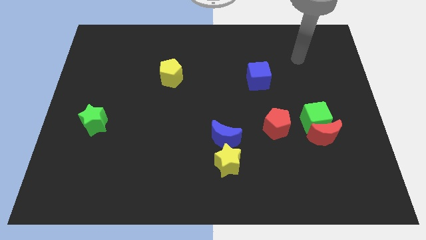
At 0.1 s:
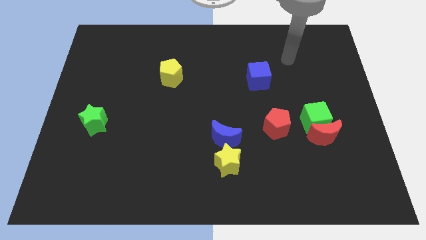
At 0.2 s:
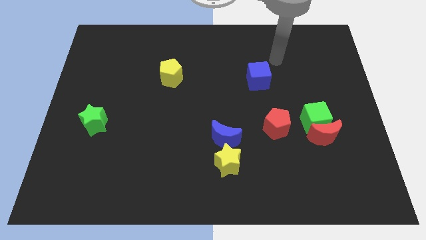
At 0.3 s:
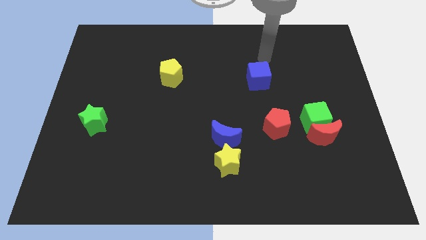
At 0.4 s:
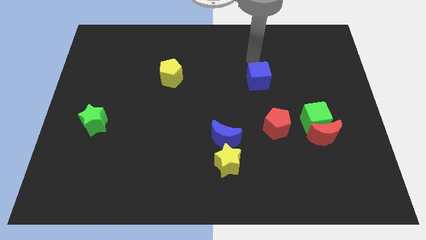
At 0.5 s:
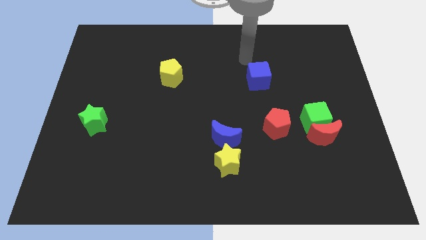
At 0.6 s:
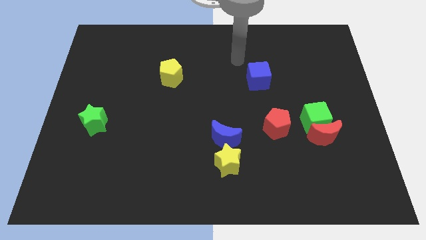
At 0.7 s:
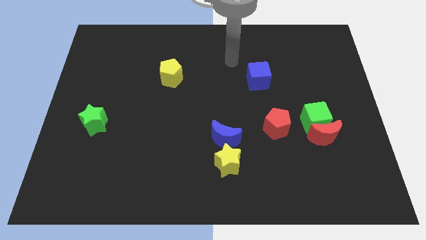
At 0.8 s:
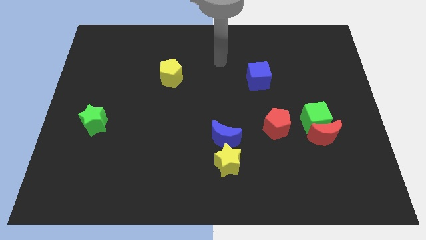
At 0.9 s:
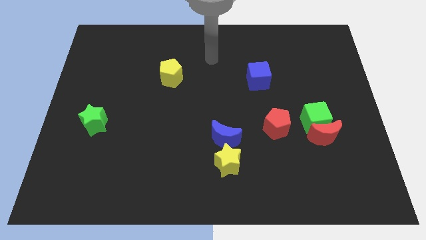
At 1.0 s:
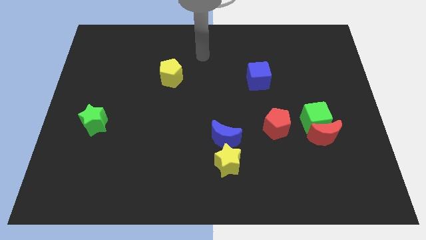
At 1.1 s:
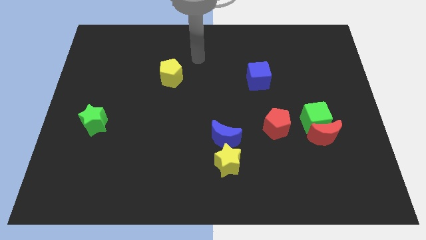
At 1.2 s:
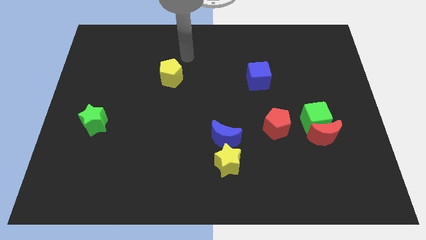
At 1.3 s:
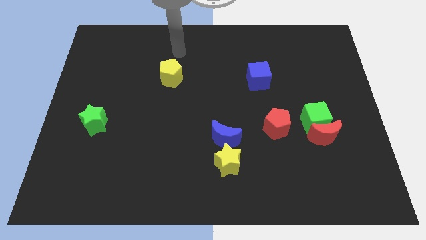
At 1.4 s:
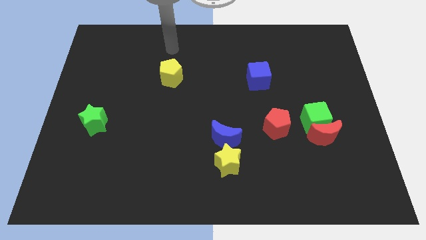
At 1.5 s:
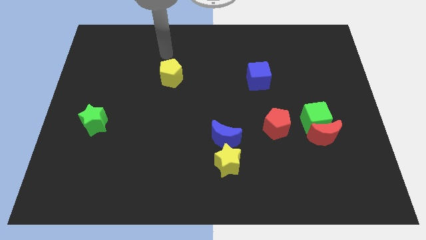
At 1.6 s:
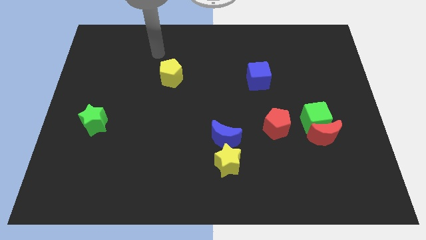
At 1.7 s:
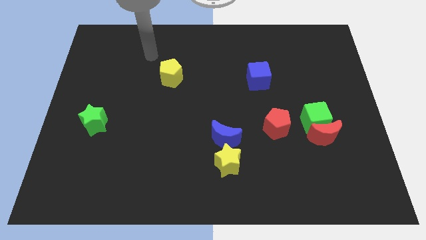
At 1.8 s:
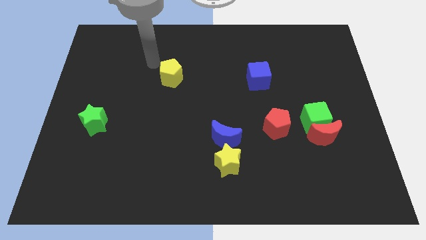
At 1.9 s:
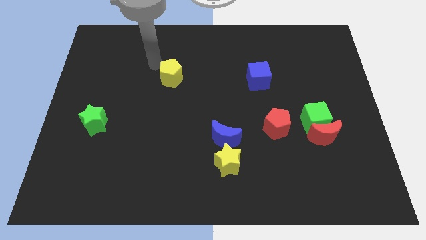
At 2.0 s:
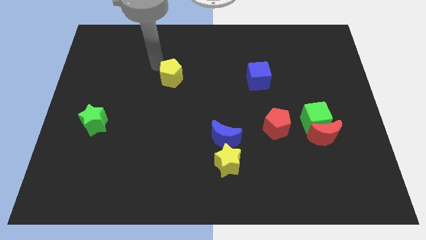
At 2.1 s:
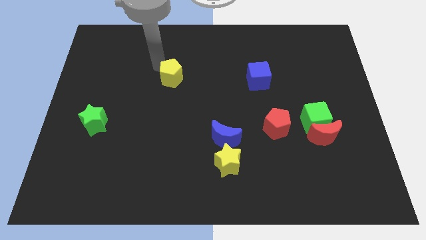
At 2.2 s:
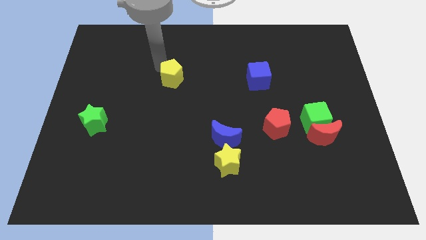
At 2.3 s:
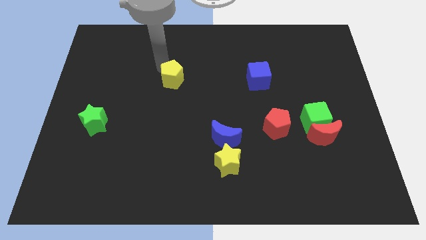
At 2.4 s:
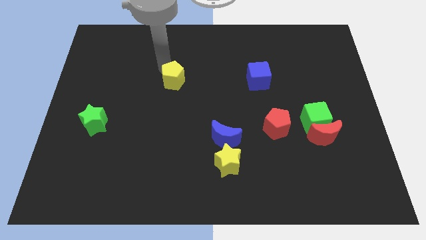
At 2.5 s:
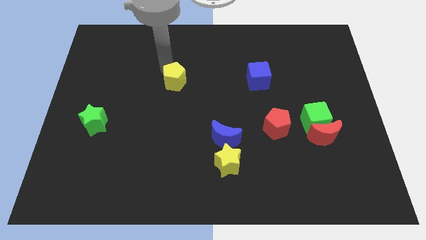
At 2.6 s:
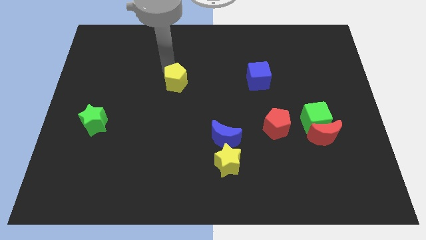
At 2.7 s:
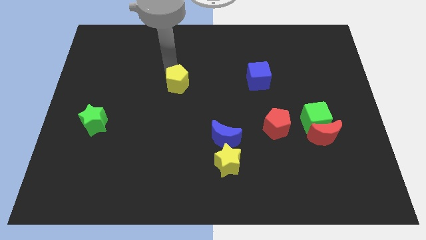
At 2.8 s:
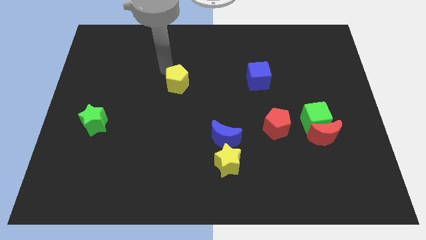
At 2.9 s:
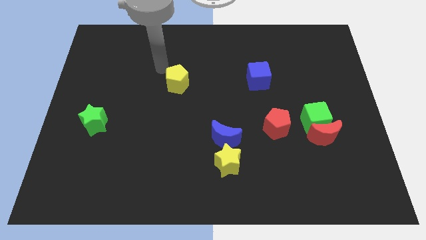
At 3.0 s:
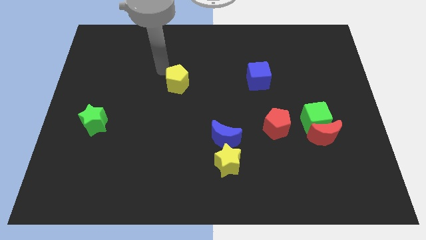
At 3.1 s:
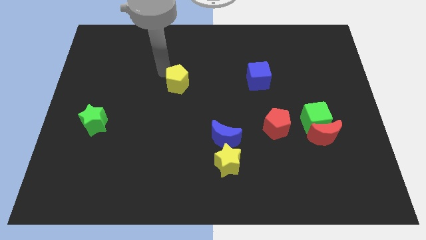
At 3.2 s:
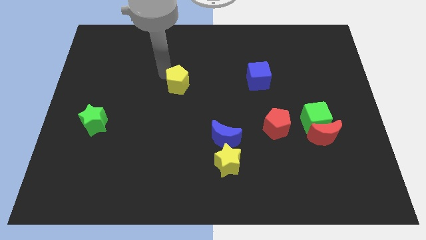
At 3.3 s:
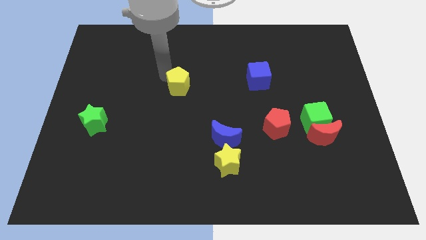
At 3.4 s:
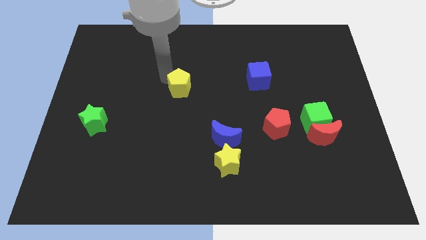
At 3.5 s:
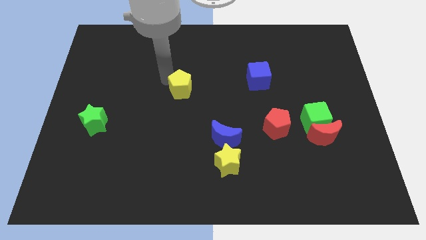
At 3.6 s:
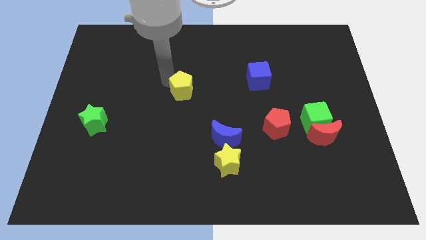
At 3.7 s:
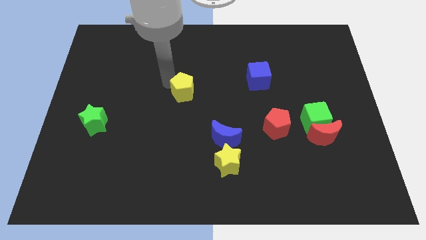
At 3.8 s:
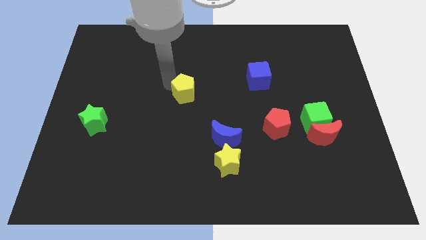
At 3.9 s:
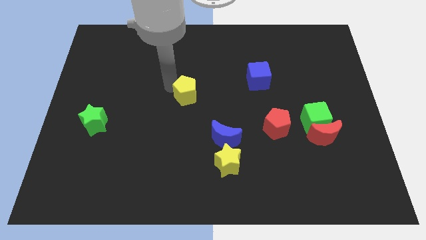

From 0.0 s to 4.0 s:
slide the yellow pentagon down and then to the right a little

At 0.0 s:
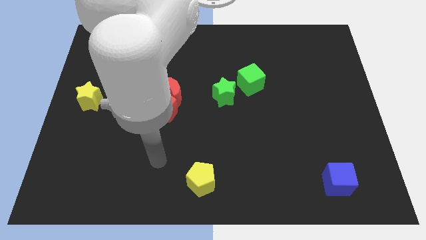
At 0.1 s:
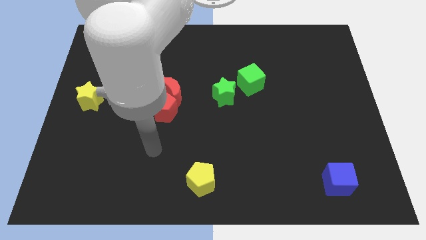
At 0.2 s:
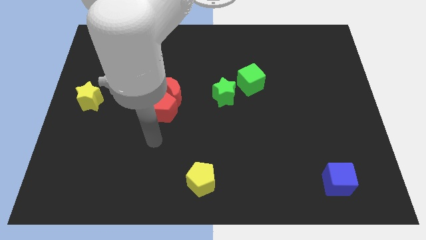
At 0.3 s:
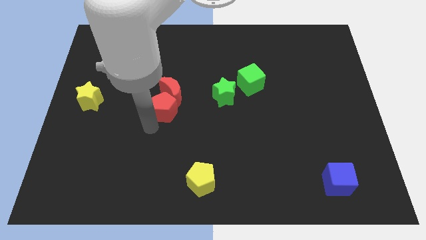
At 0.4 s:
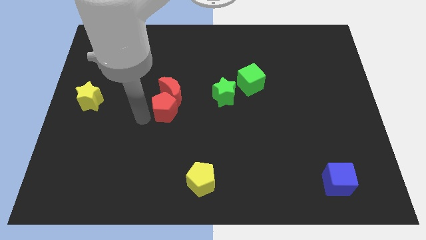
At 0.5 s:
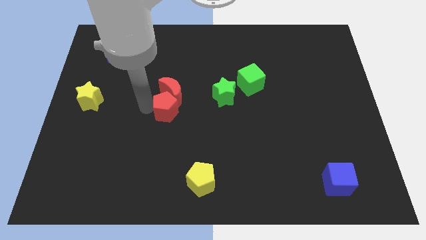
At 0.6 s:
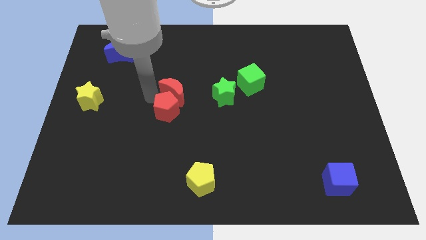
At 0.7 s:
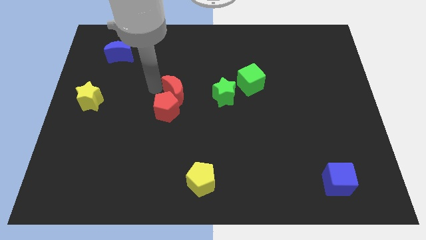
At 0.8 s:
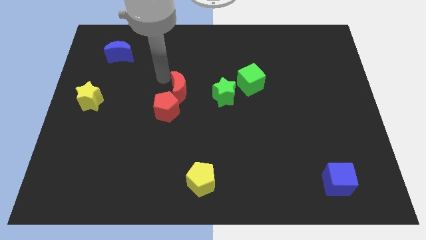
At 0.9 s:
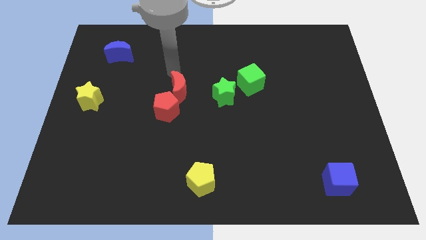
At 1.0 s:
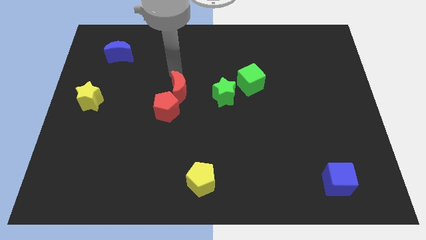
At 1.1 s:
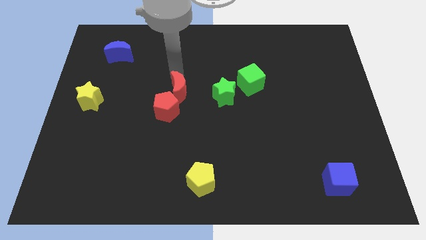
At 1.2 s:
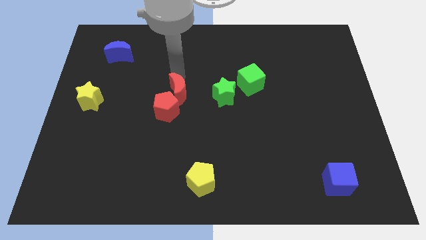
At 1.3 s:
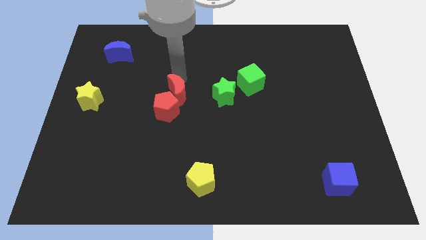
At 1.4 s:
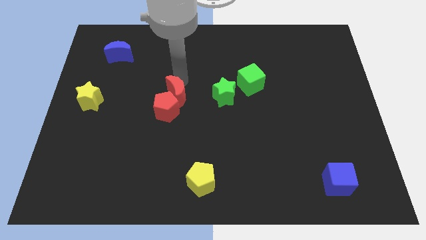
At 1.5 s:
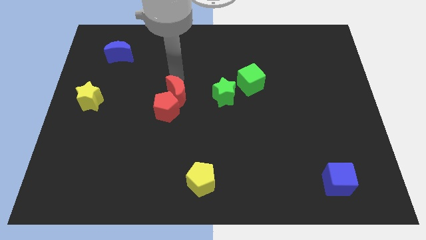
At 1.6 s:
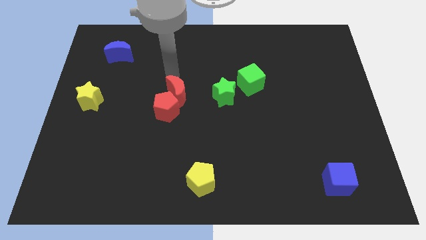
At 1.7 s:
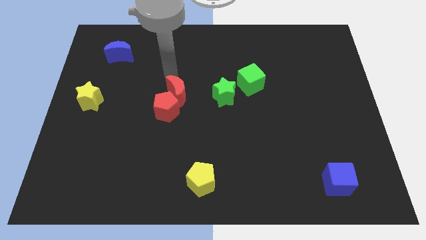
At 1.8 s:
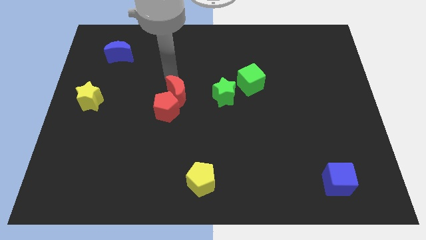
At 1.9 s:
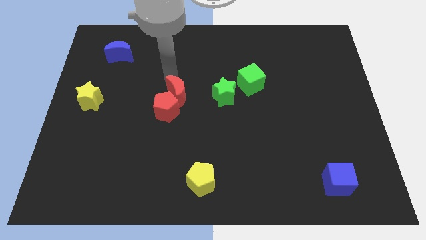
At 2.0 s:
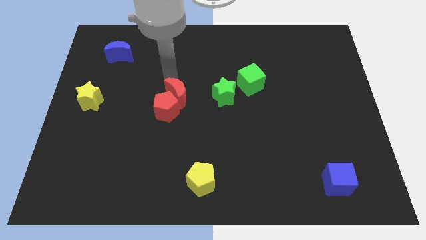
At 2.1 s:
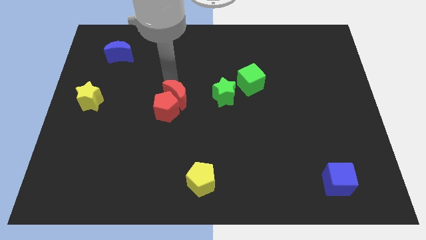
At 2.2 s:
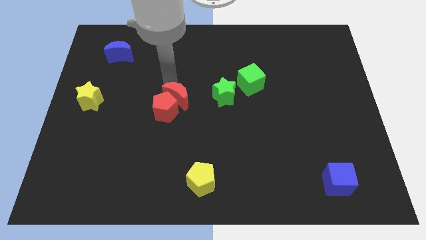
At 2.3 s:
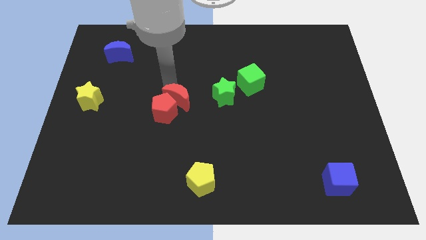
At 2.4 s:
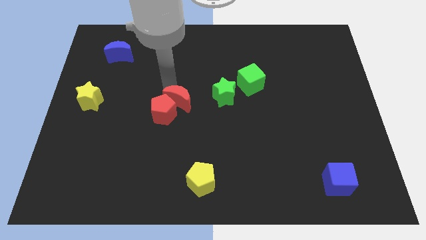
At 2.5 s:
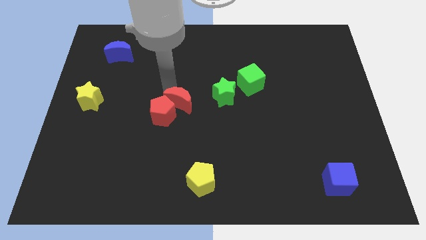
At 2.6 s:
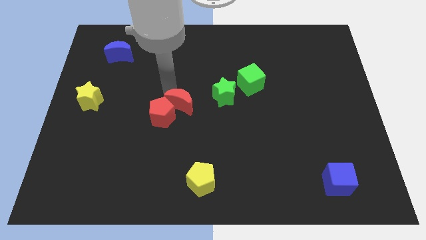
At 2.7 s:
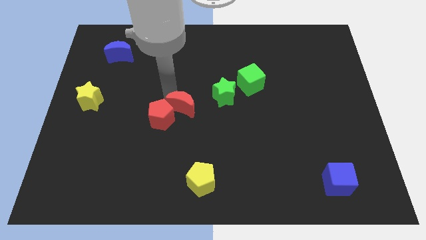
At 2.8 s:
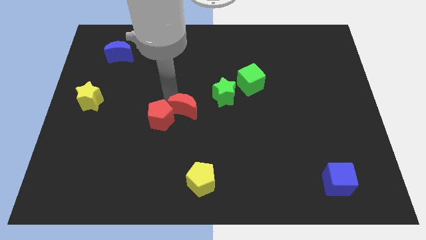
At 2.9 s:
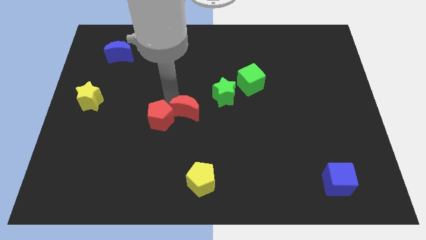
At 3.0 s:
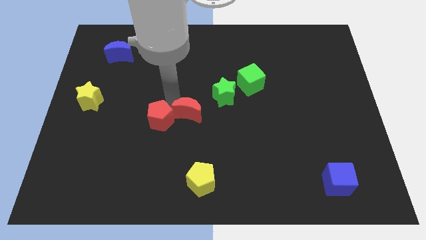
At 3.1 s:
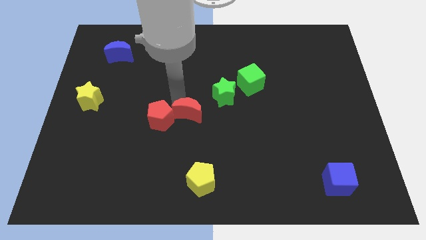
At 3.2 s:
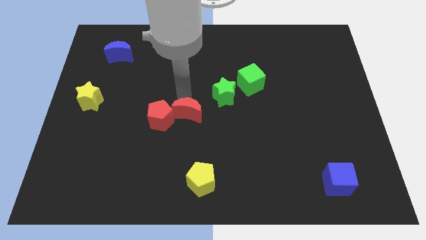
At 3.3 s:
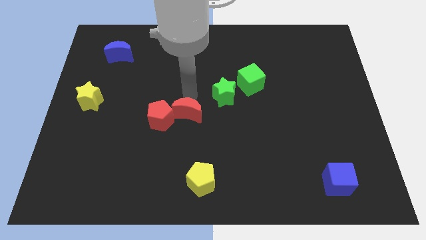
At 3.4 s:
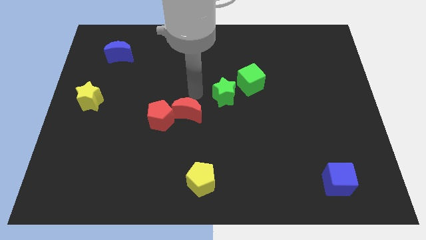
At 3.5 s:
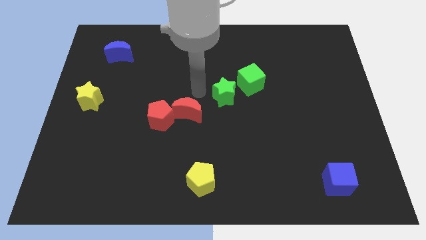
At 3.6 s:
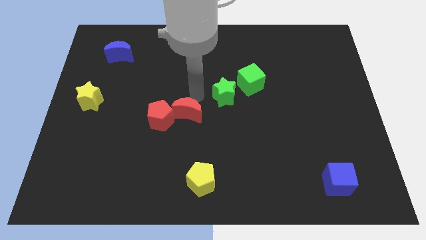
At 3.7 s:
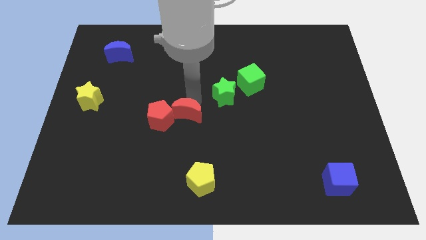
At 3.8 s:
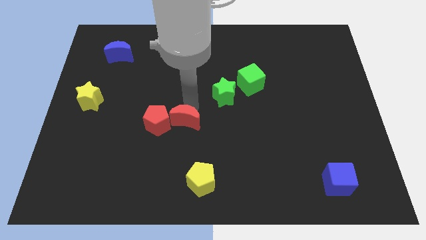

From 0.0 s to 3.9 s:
move the red moon down a little

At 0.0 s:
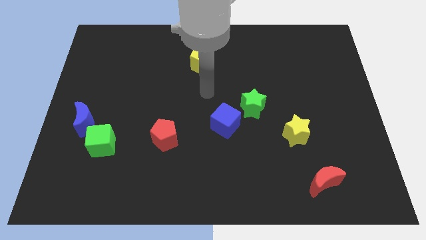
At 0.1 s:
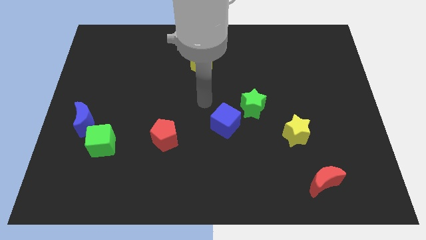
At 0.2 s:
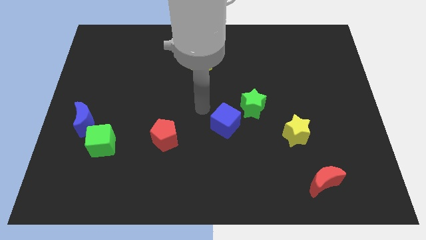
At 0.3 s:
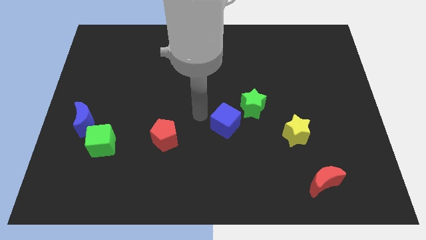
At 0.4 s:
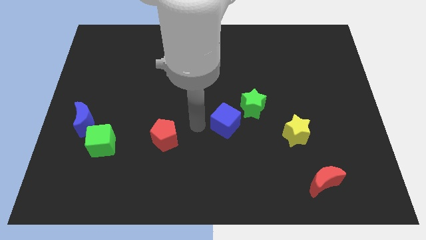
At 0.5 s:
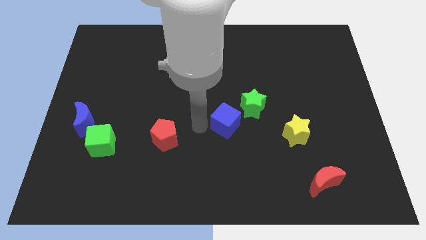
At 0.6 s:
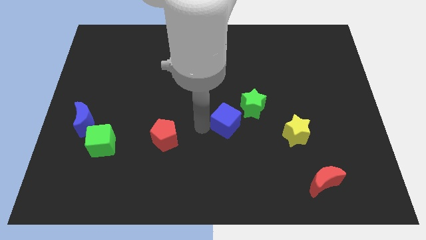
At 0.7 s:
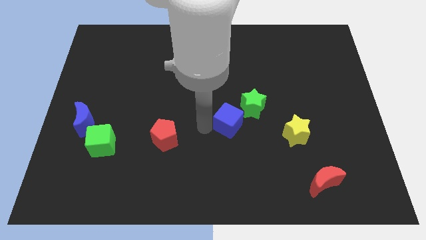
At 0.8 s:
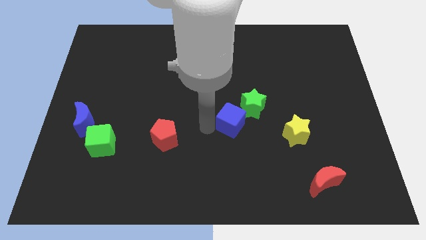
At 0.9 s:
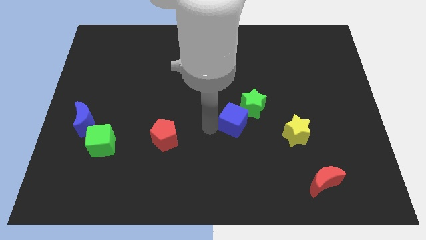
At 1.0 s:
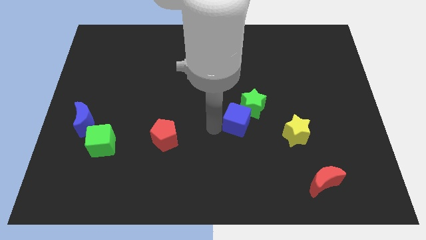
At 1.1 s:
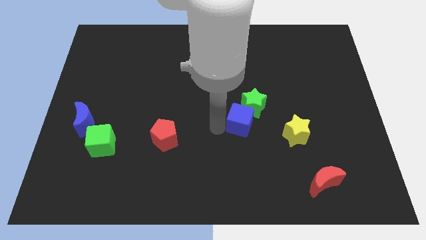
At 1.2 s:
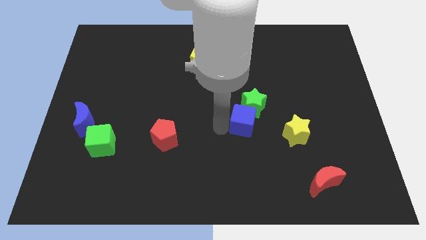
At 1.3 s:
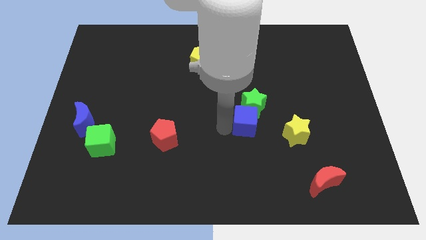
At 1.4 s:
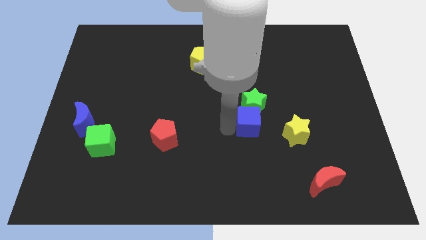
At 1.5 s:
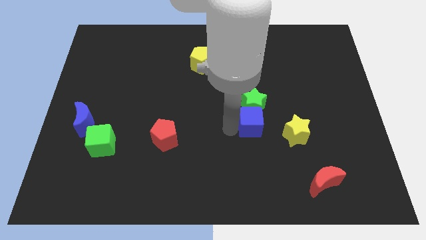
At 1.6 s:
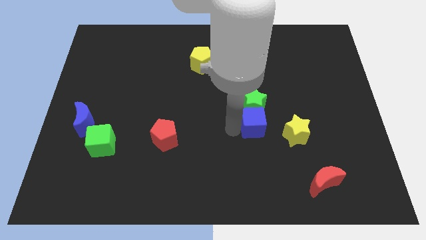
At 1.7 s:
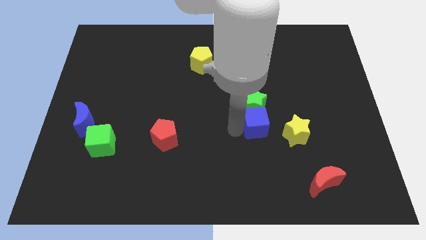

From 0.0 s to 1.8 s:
slide the blue cube right slightly
